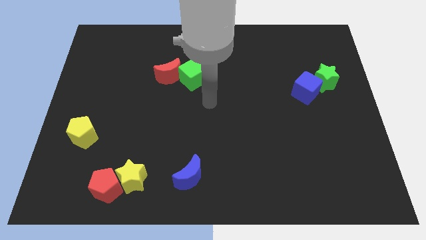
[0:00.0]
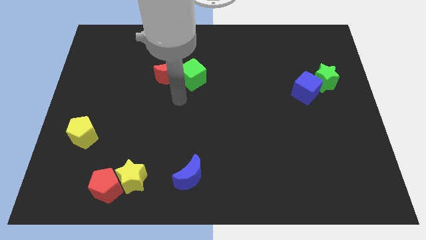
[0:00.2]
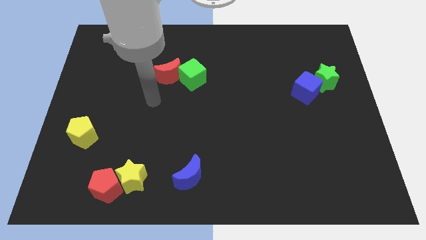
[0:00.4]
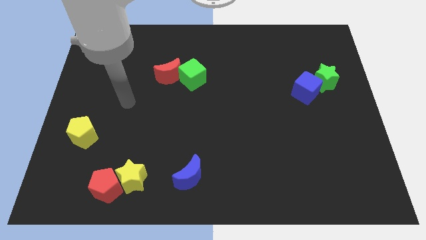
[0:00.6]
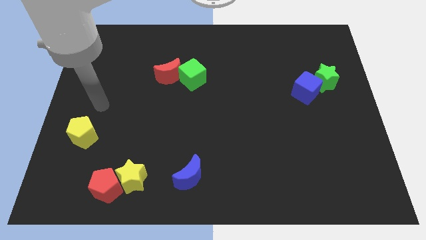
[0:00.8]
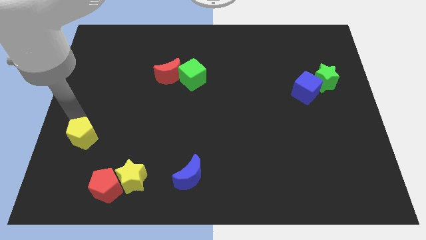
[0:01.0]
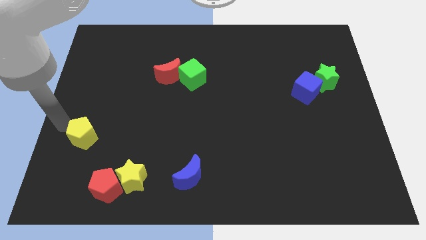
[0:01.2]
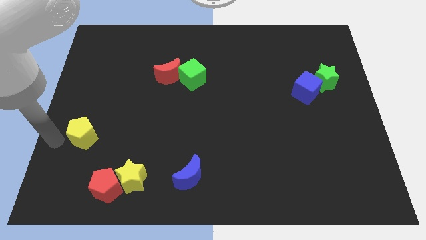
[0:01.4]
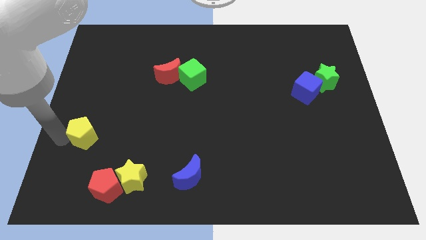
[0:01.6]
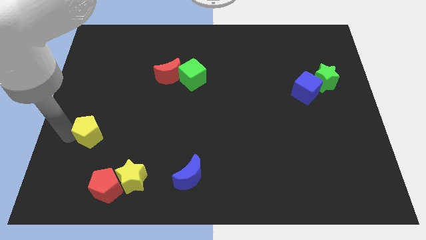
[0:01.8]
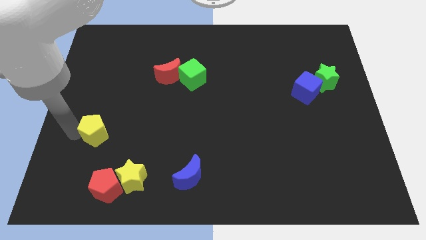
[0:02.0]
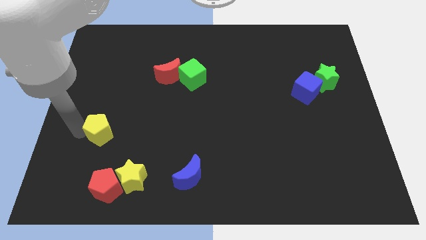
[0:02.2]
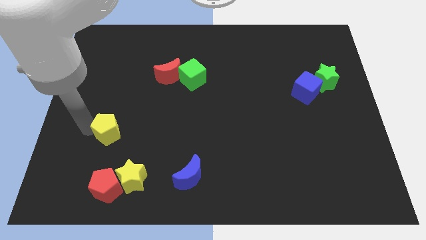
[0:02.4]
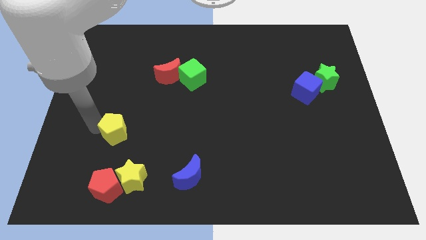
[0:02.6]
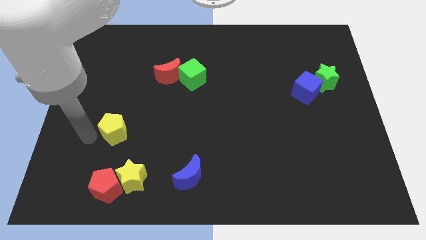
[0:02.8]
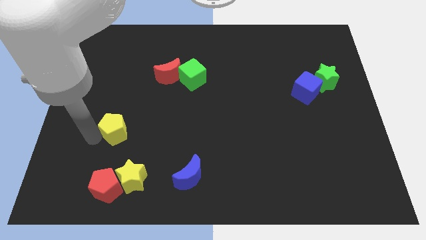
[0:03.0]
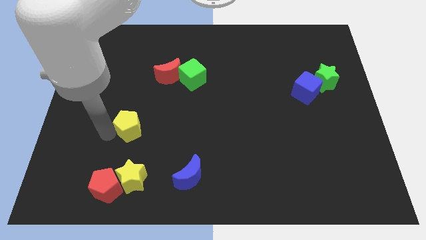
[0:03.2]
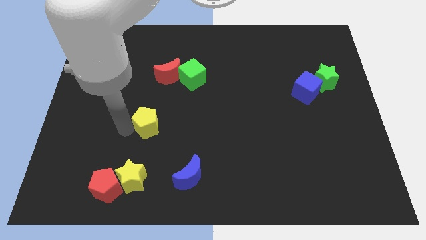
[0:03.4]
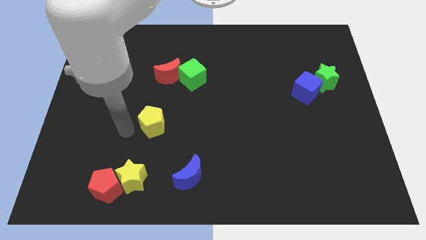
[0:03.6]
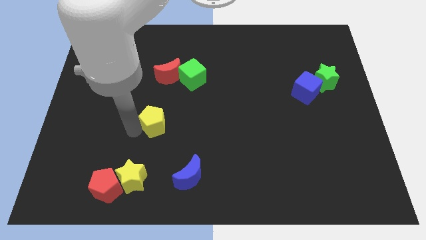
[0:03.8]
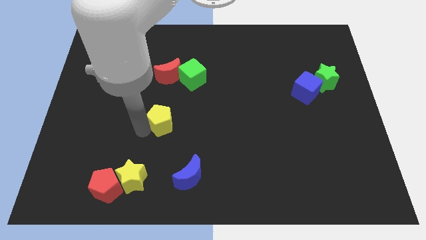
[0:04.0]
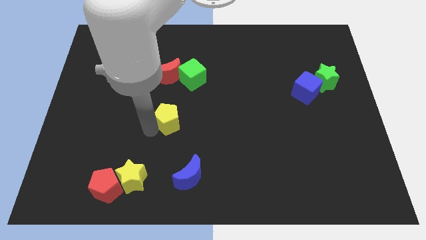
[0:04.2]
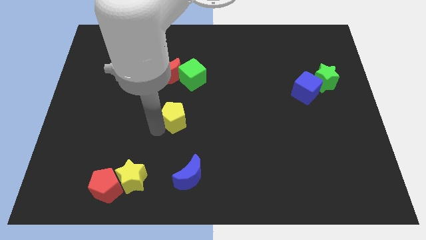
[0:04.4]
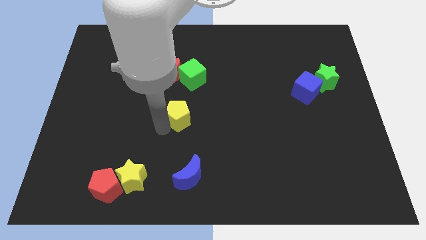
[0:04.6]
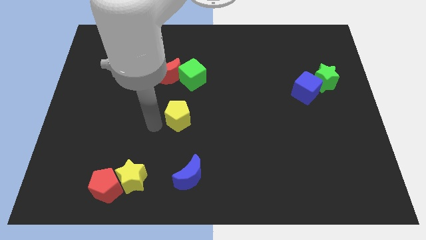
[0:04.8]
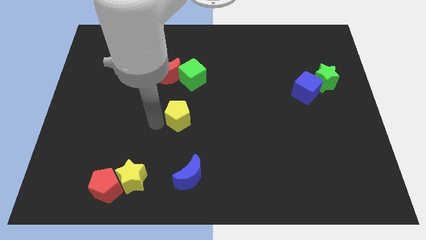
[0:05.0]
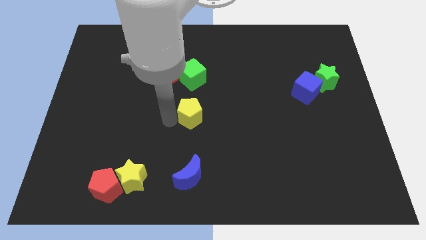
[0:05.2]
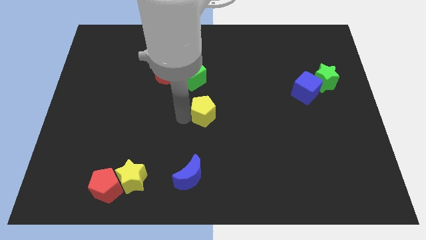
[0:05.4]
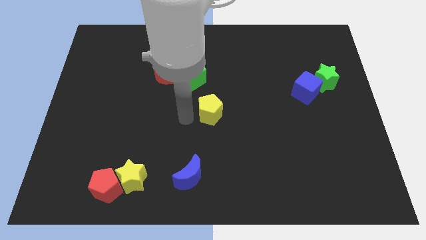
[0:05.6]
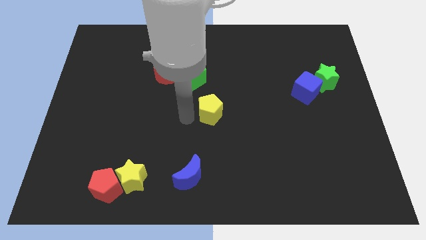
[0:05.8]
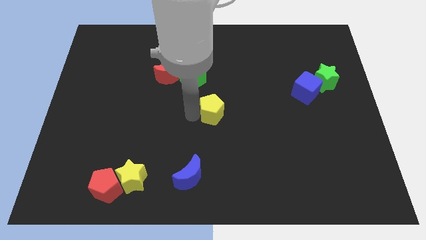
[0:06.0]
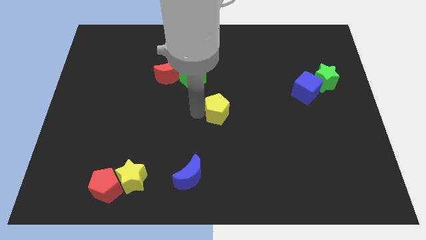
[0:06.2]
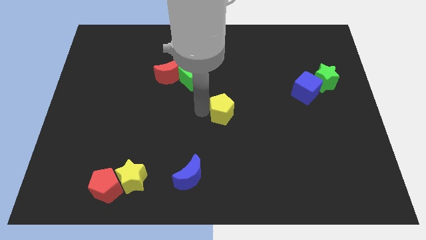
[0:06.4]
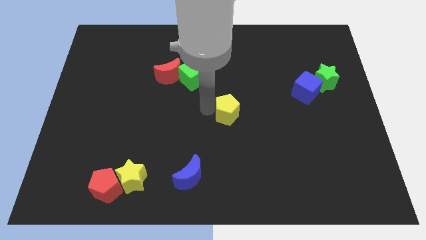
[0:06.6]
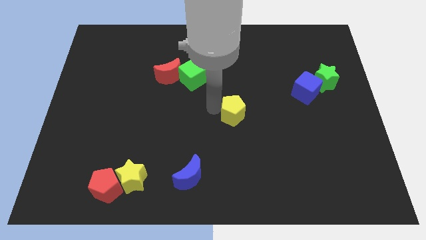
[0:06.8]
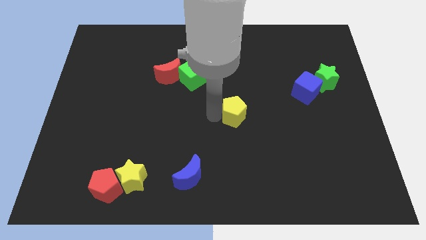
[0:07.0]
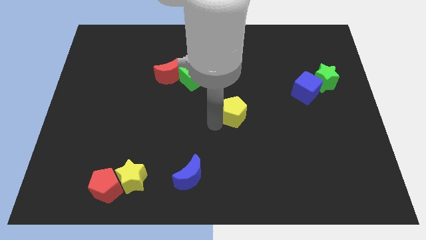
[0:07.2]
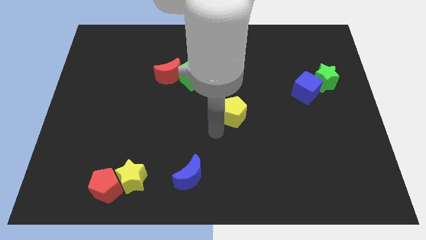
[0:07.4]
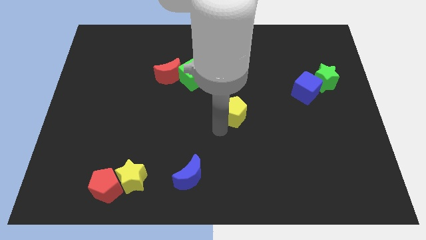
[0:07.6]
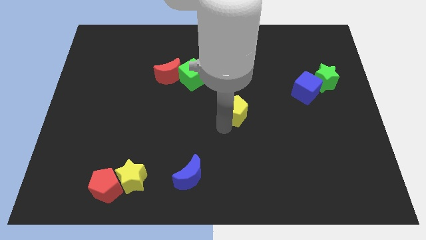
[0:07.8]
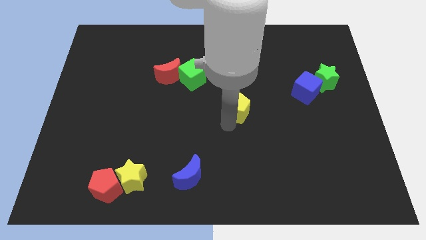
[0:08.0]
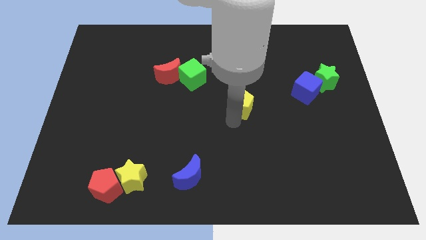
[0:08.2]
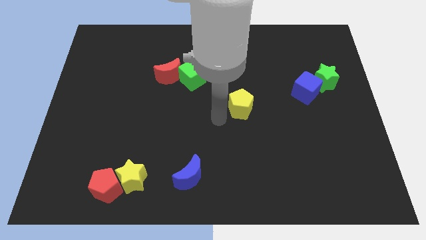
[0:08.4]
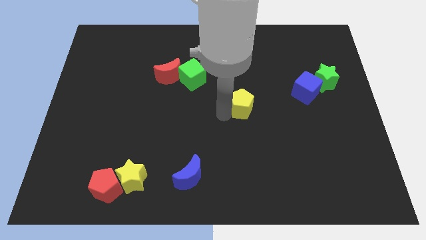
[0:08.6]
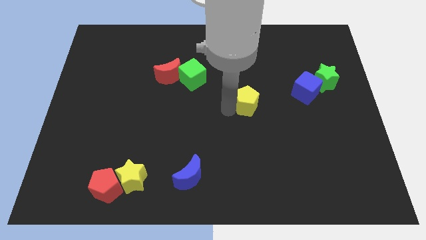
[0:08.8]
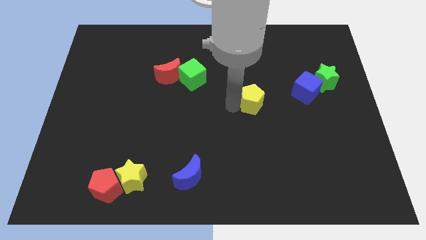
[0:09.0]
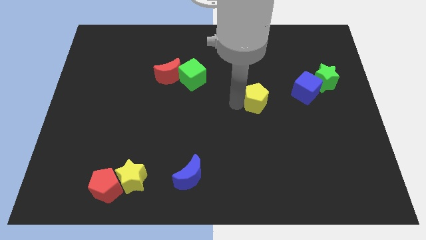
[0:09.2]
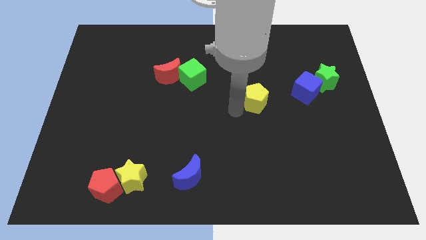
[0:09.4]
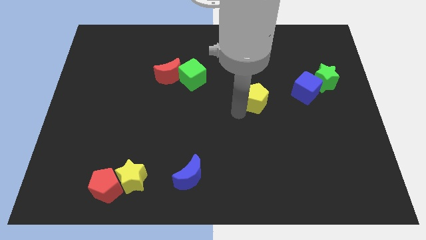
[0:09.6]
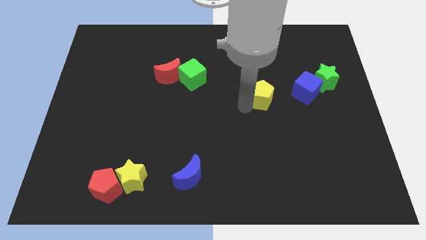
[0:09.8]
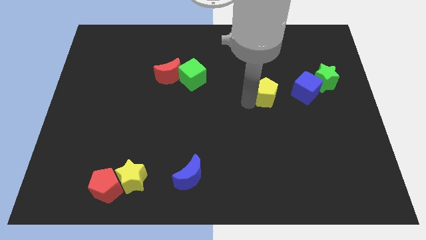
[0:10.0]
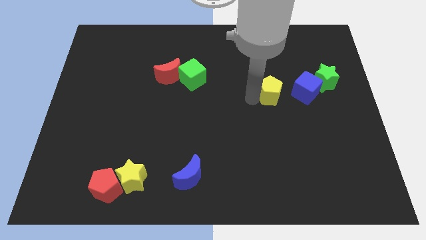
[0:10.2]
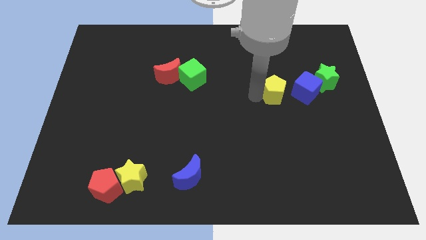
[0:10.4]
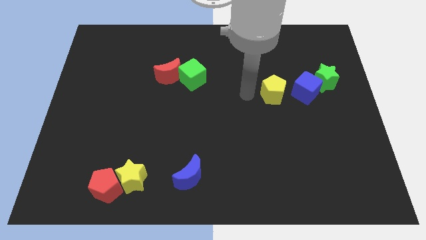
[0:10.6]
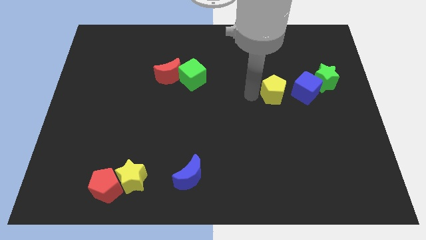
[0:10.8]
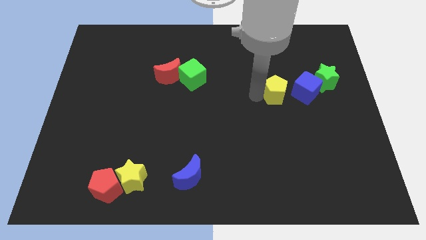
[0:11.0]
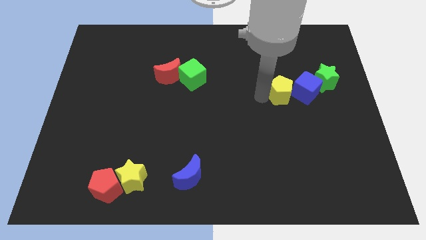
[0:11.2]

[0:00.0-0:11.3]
slide the yellow pentagon next to the blue cube

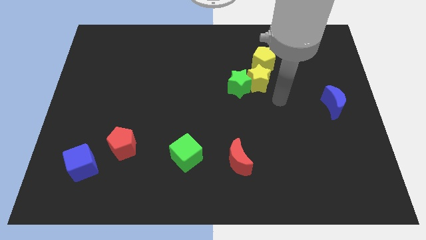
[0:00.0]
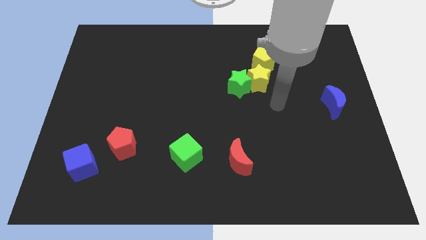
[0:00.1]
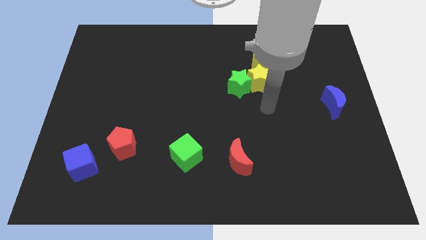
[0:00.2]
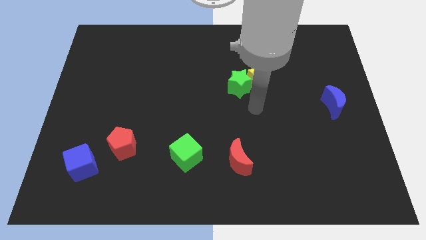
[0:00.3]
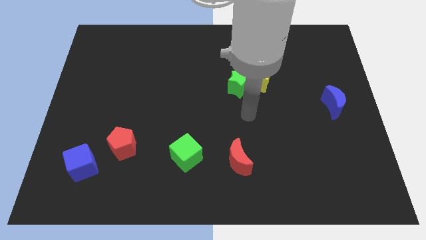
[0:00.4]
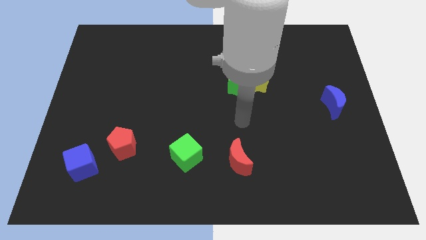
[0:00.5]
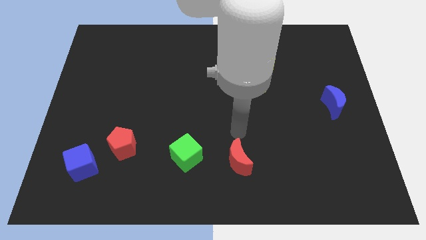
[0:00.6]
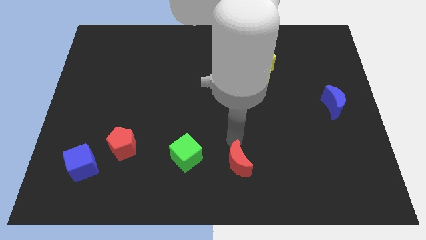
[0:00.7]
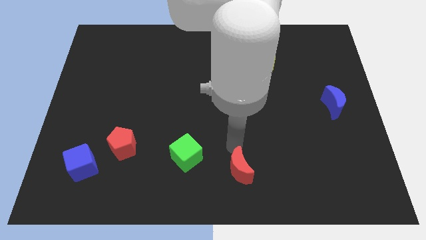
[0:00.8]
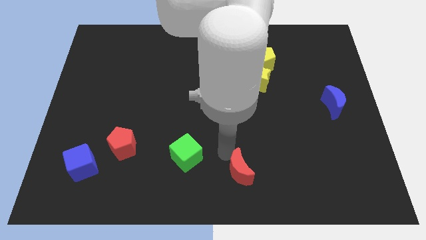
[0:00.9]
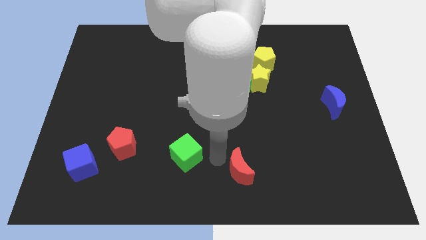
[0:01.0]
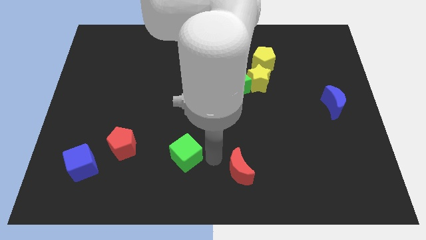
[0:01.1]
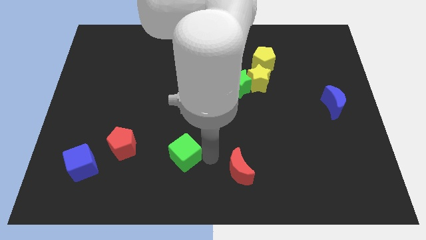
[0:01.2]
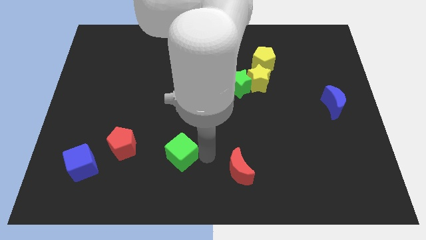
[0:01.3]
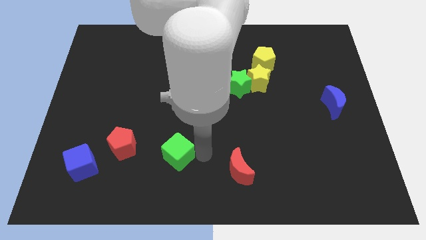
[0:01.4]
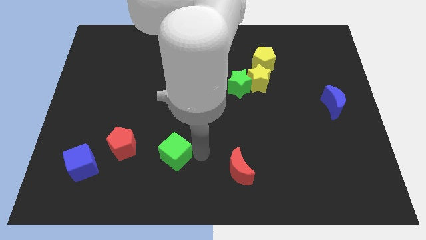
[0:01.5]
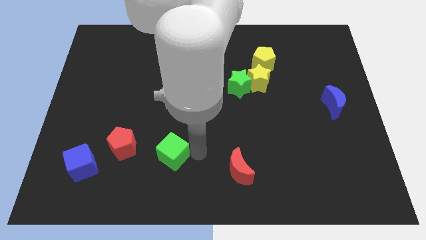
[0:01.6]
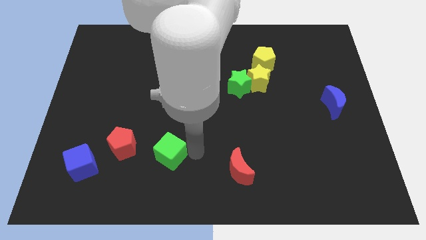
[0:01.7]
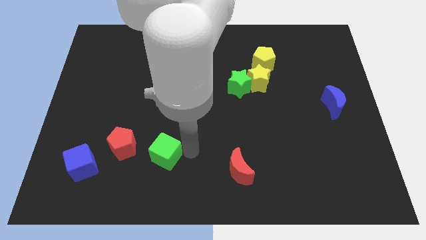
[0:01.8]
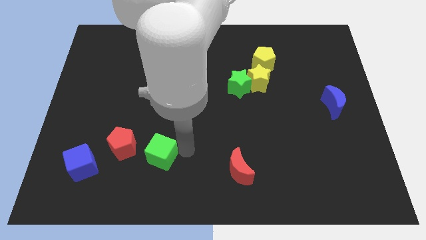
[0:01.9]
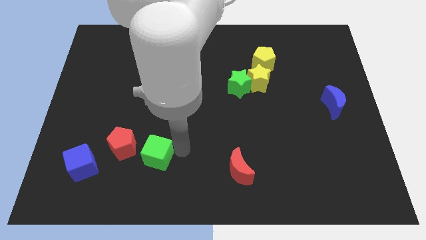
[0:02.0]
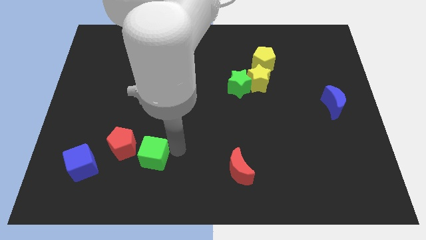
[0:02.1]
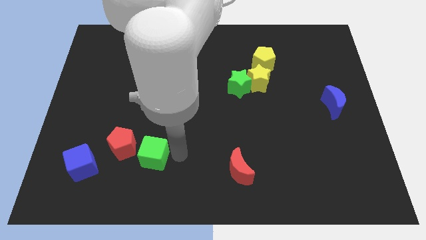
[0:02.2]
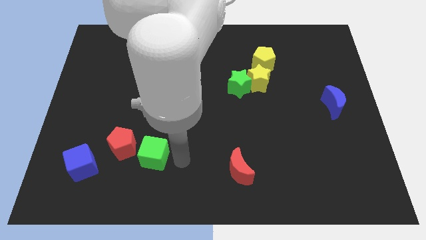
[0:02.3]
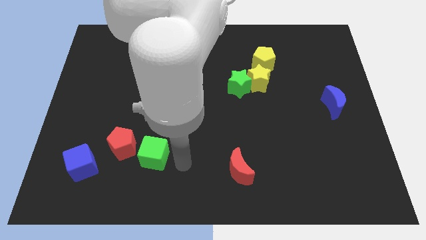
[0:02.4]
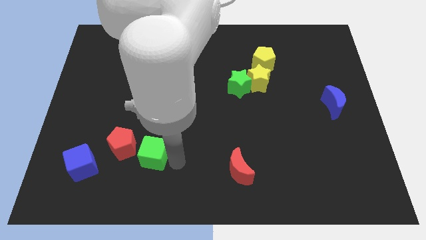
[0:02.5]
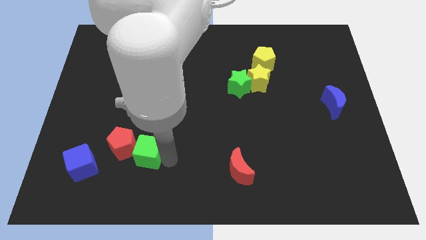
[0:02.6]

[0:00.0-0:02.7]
put the green cube close to the red pentagon
